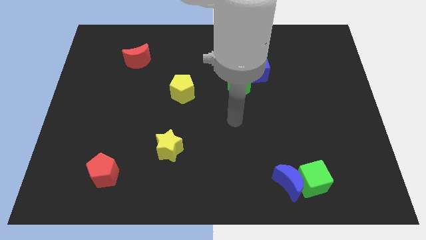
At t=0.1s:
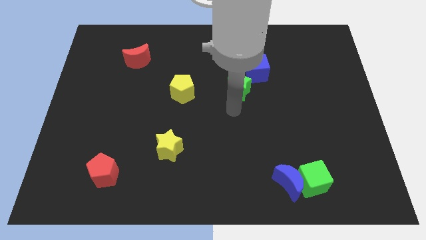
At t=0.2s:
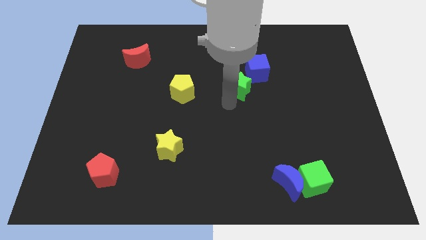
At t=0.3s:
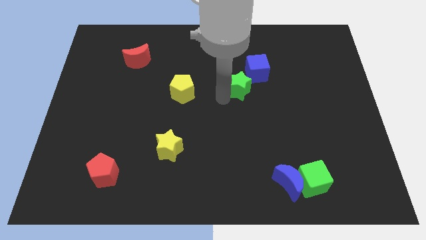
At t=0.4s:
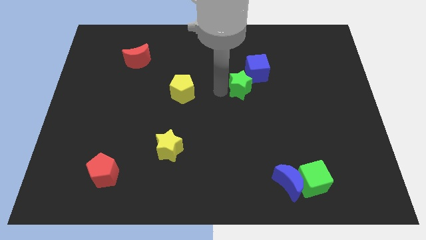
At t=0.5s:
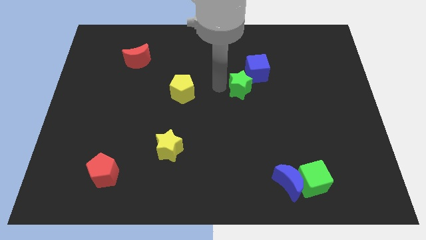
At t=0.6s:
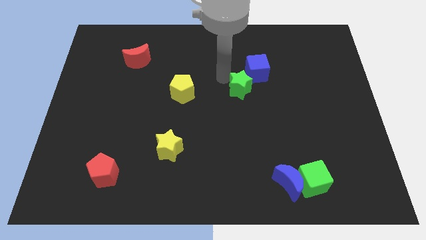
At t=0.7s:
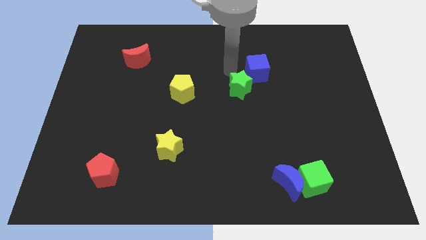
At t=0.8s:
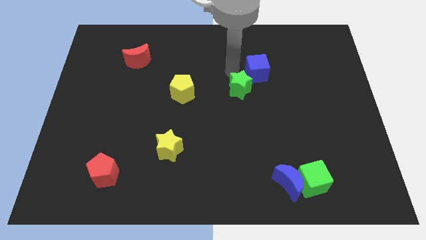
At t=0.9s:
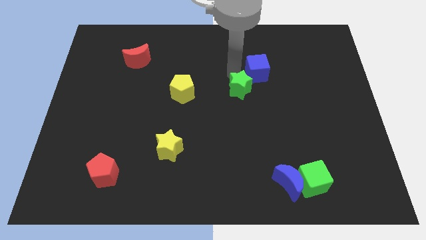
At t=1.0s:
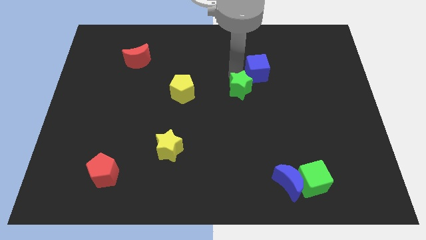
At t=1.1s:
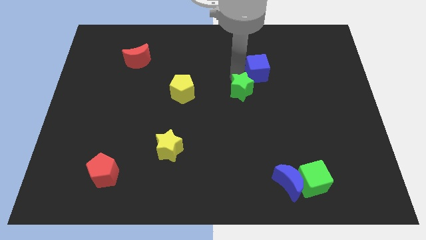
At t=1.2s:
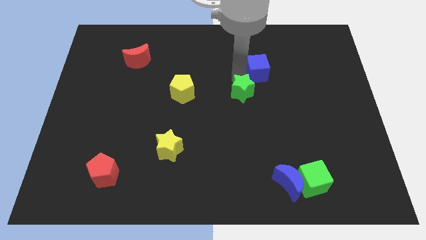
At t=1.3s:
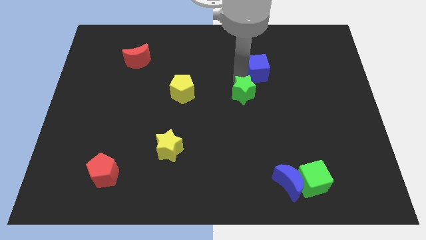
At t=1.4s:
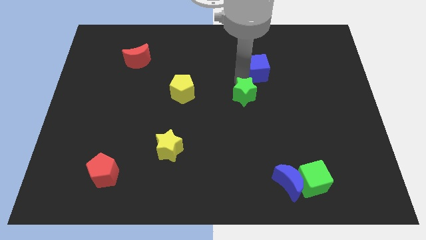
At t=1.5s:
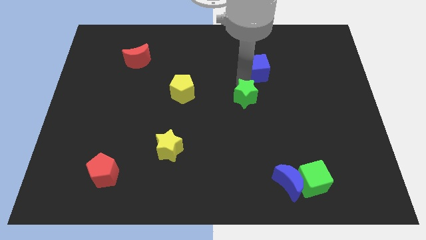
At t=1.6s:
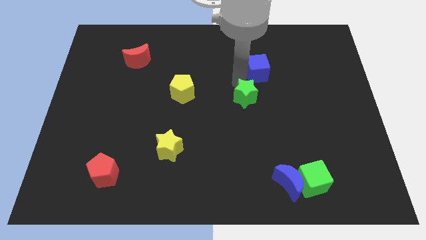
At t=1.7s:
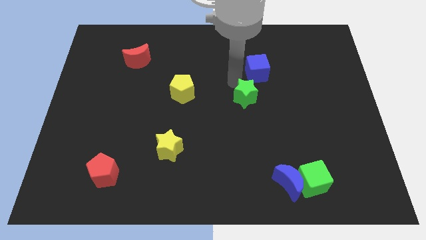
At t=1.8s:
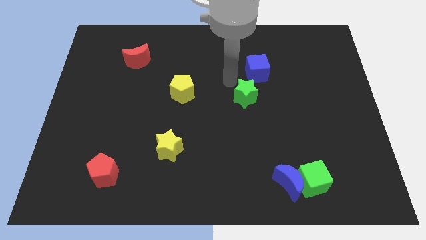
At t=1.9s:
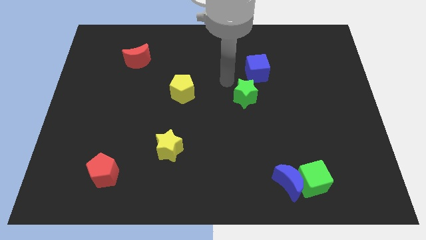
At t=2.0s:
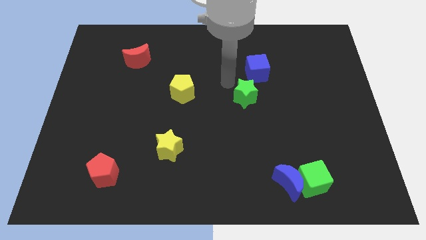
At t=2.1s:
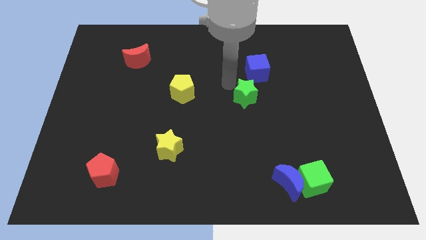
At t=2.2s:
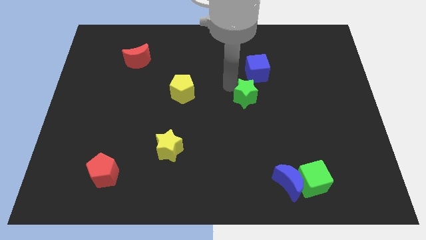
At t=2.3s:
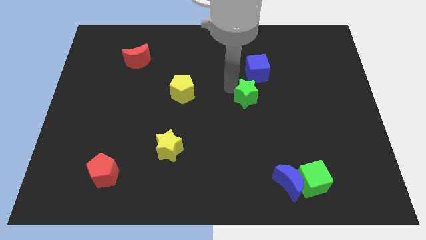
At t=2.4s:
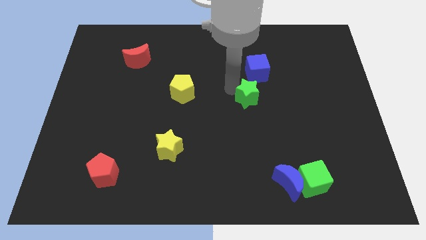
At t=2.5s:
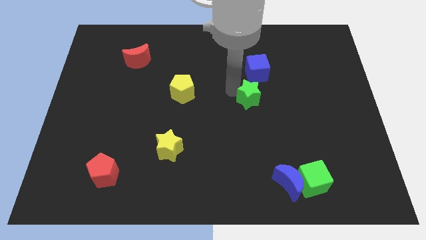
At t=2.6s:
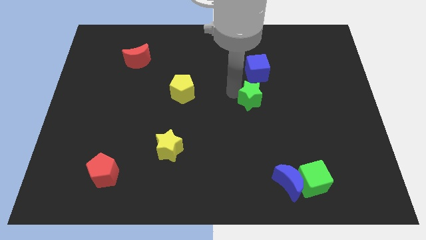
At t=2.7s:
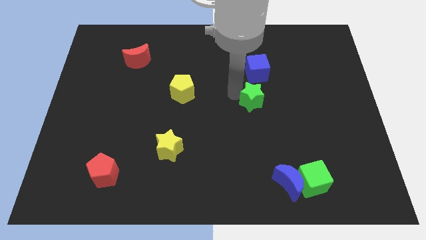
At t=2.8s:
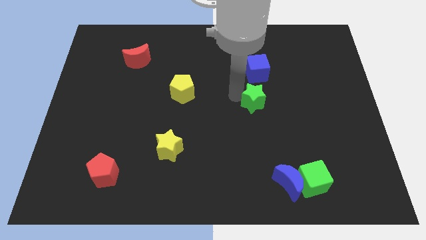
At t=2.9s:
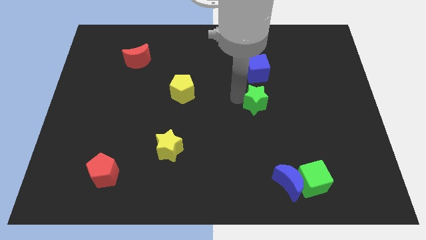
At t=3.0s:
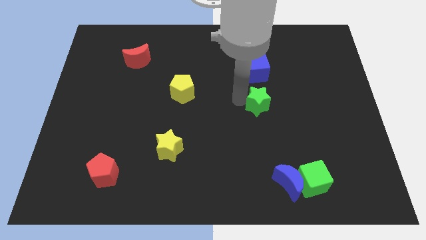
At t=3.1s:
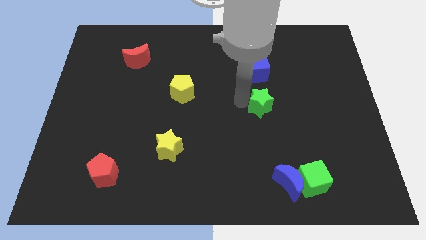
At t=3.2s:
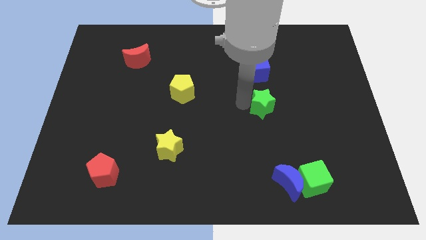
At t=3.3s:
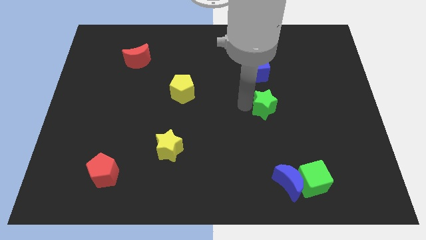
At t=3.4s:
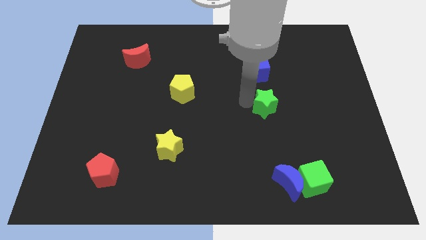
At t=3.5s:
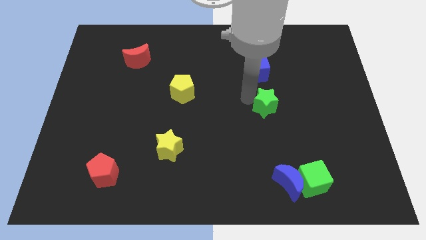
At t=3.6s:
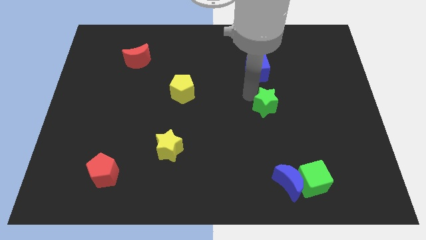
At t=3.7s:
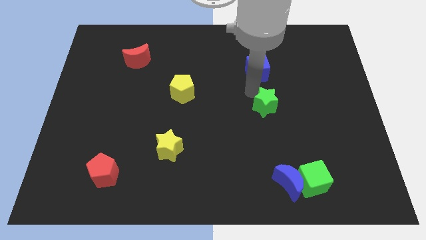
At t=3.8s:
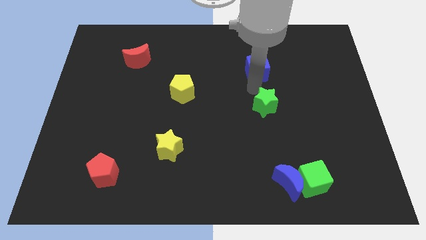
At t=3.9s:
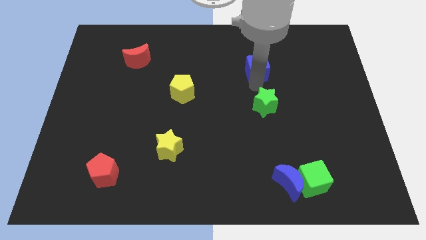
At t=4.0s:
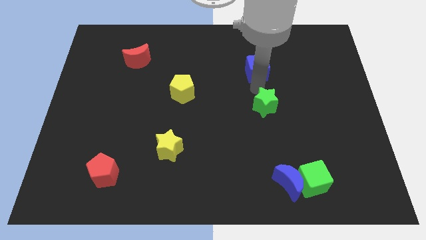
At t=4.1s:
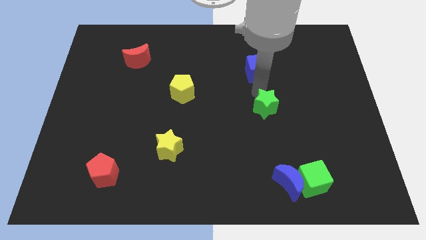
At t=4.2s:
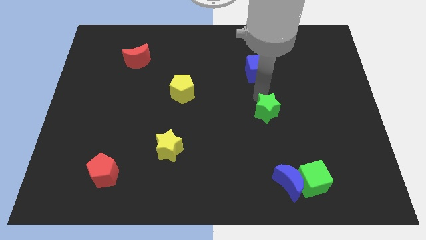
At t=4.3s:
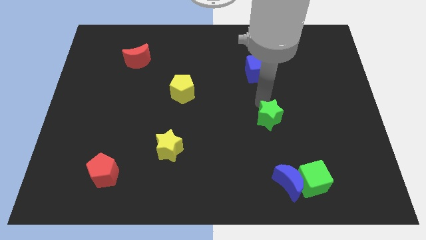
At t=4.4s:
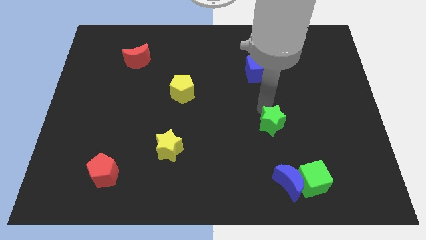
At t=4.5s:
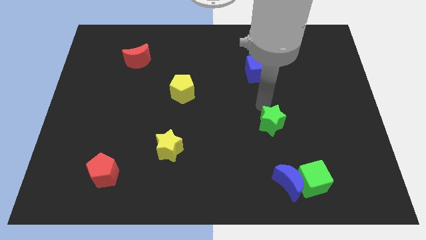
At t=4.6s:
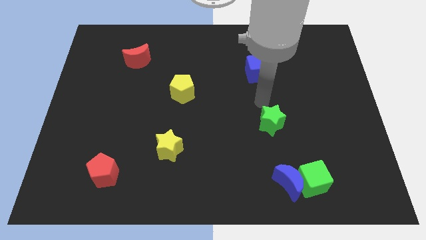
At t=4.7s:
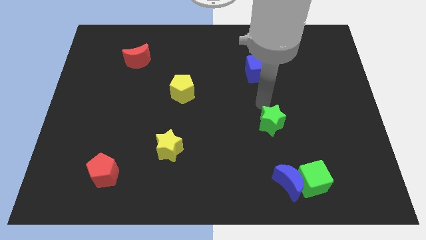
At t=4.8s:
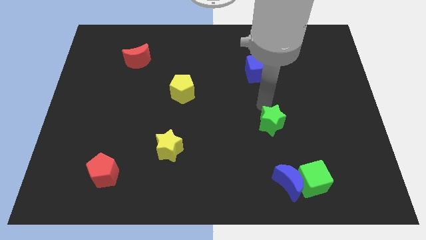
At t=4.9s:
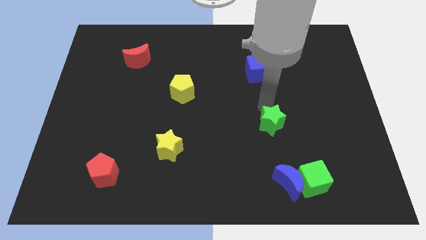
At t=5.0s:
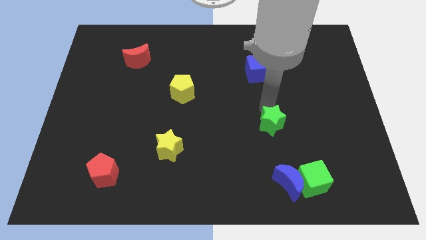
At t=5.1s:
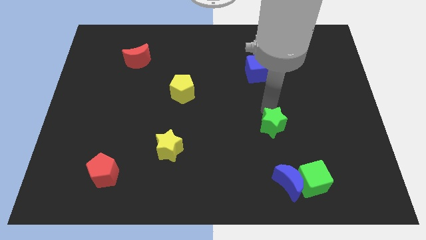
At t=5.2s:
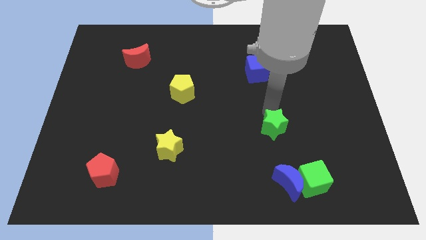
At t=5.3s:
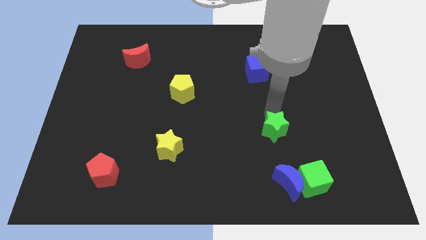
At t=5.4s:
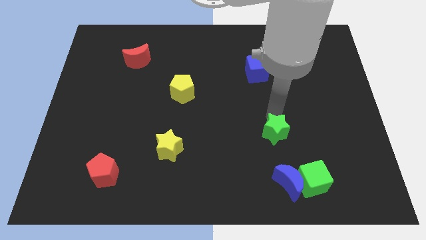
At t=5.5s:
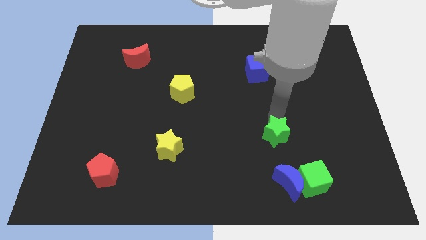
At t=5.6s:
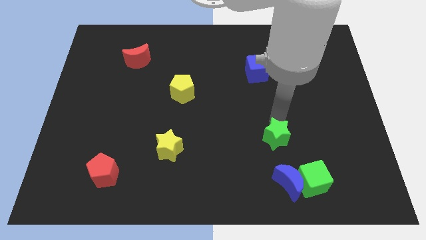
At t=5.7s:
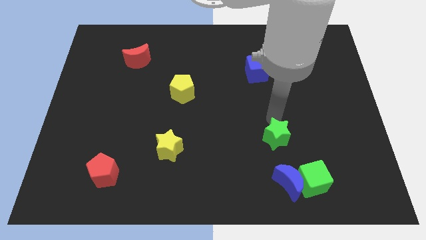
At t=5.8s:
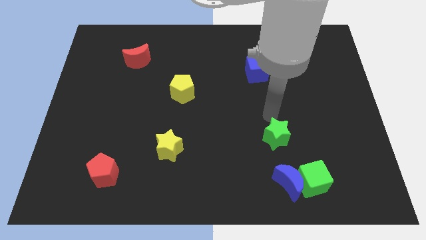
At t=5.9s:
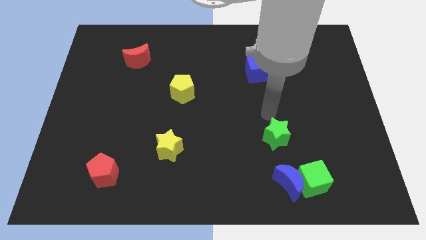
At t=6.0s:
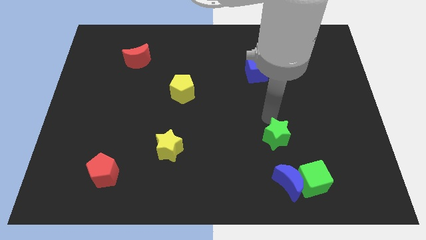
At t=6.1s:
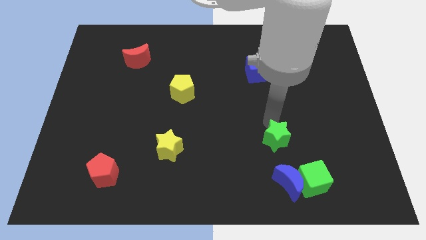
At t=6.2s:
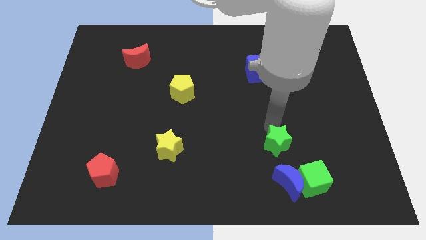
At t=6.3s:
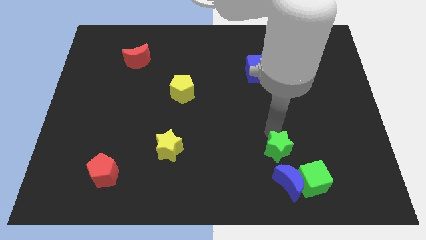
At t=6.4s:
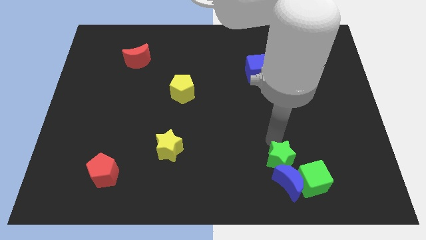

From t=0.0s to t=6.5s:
slide the green star next to the blue moon

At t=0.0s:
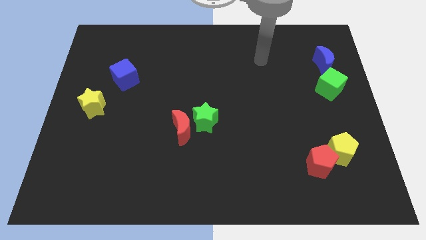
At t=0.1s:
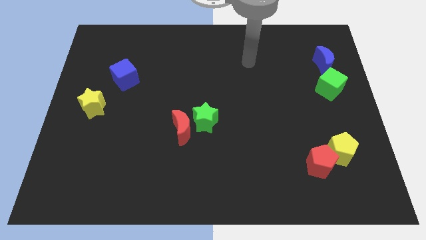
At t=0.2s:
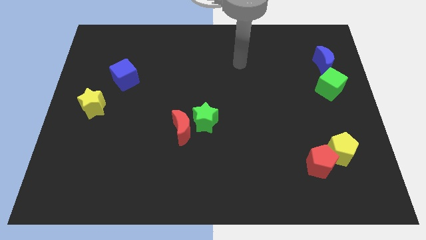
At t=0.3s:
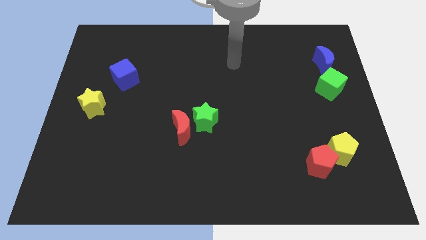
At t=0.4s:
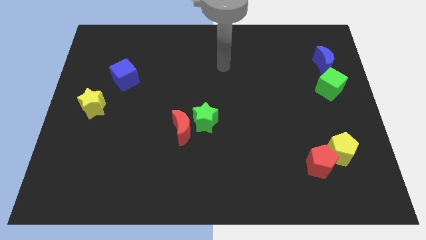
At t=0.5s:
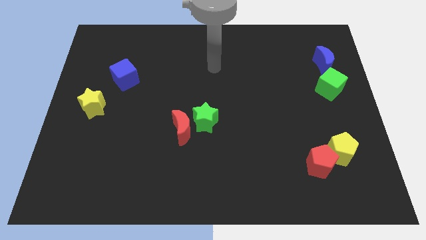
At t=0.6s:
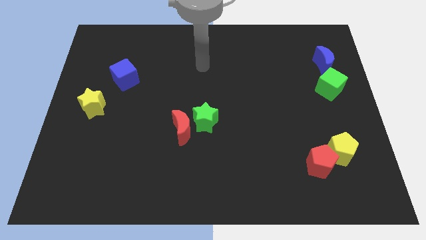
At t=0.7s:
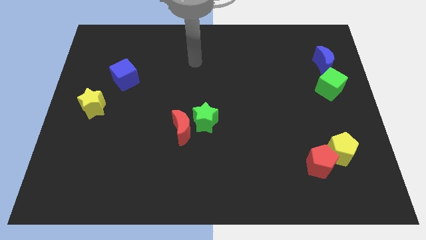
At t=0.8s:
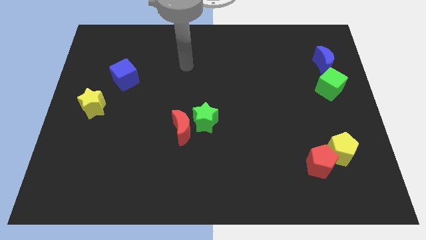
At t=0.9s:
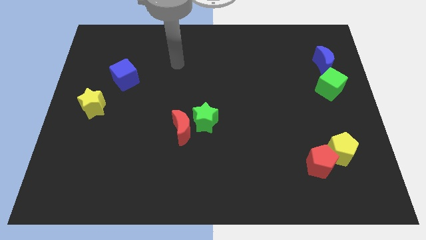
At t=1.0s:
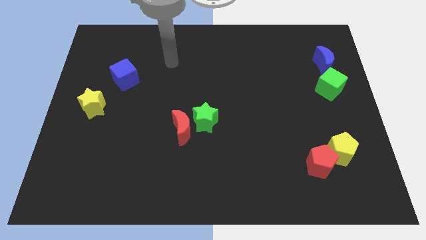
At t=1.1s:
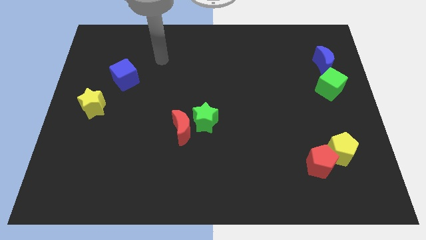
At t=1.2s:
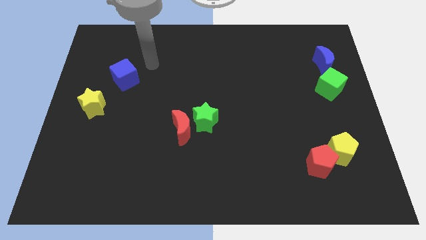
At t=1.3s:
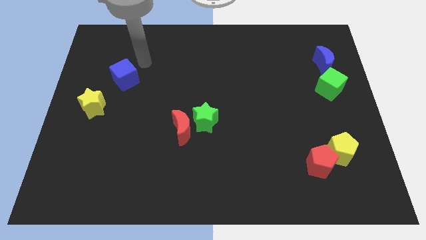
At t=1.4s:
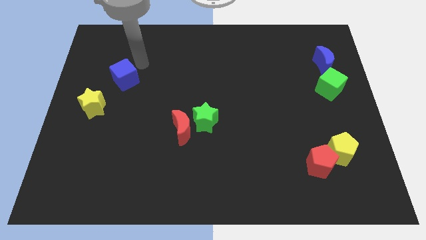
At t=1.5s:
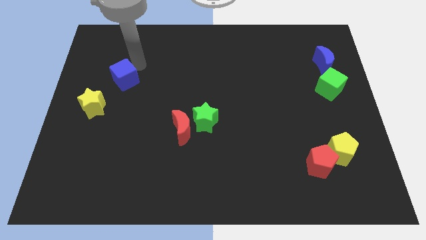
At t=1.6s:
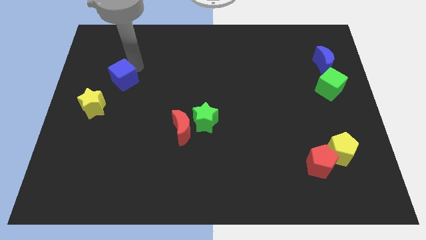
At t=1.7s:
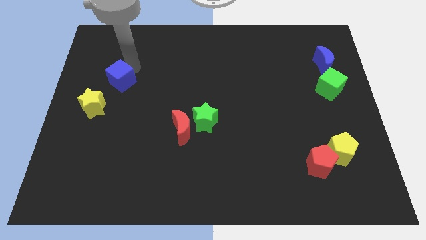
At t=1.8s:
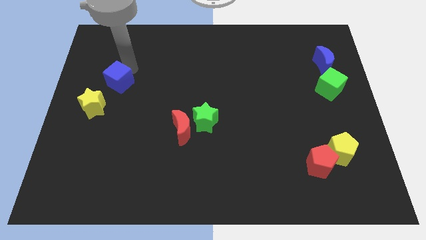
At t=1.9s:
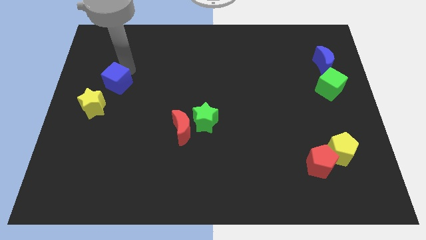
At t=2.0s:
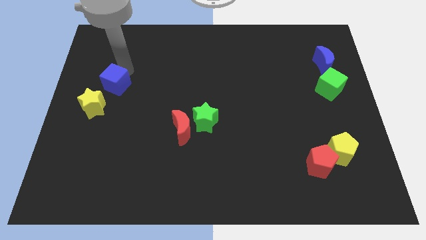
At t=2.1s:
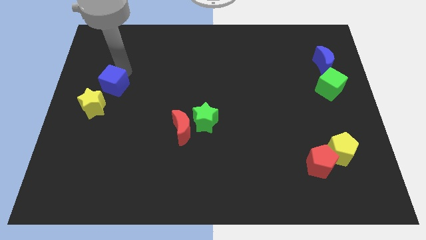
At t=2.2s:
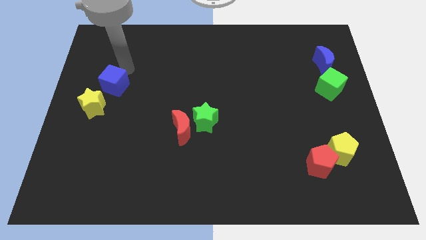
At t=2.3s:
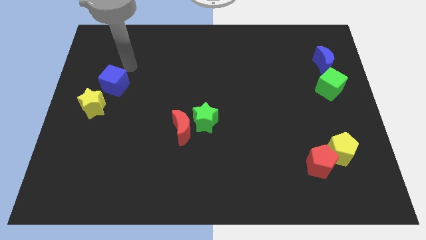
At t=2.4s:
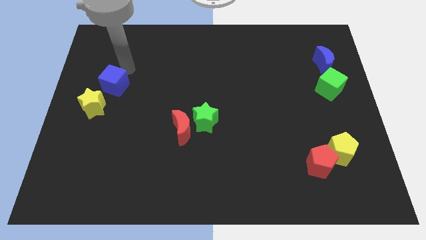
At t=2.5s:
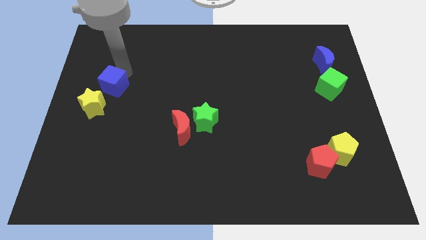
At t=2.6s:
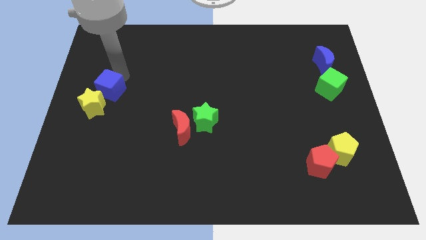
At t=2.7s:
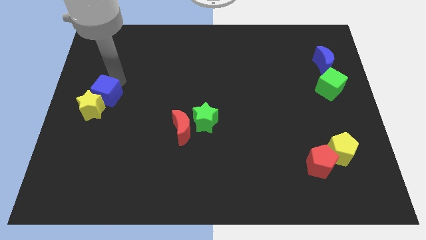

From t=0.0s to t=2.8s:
move the blue cube close to the yellow star
